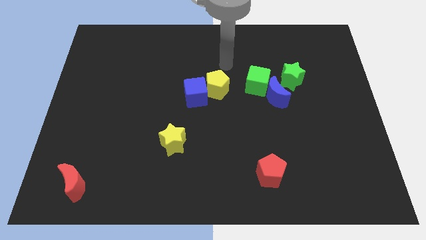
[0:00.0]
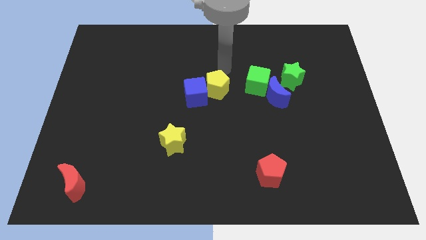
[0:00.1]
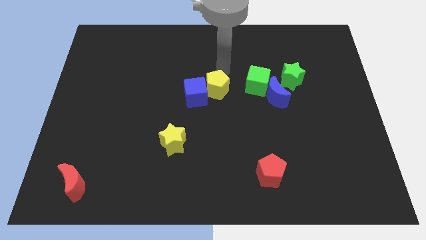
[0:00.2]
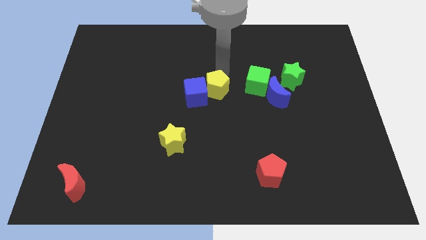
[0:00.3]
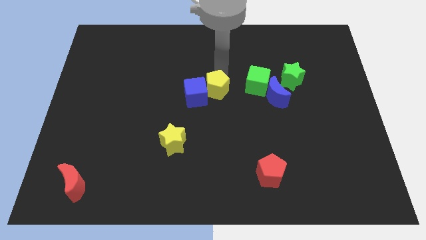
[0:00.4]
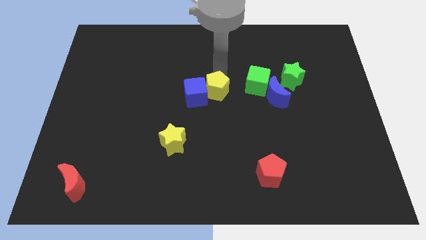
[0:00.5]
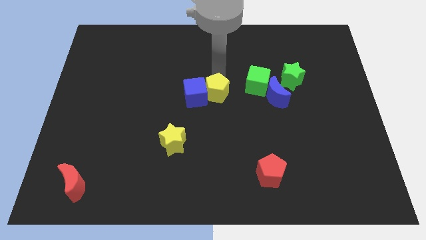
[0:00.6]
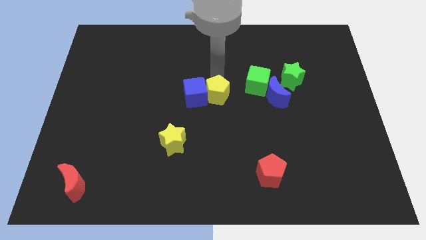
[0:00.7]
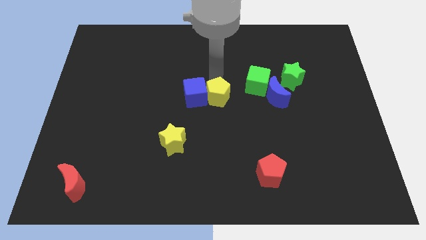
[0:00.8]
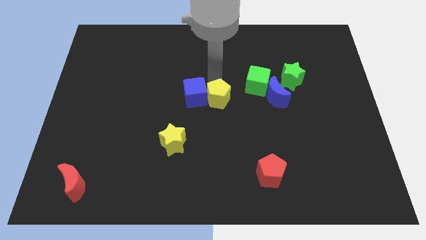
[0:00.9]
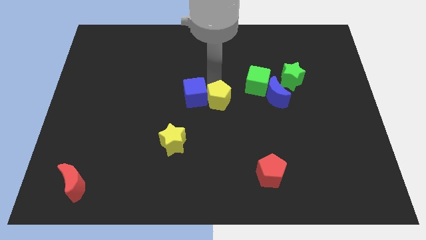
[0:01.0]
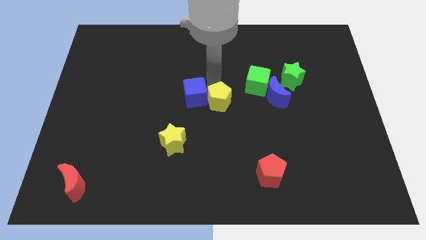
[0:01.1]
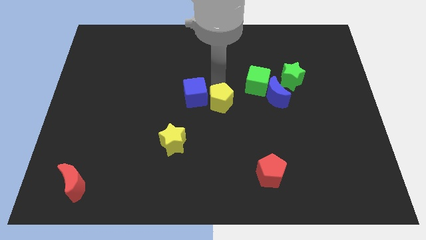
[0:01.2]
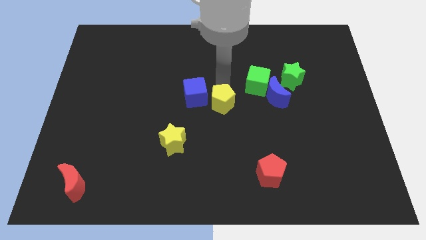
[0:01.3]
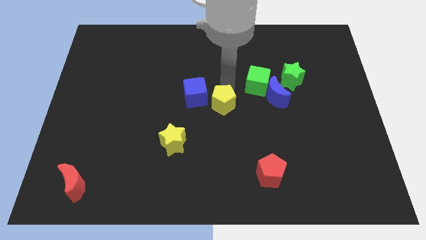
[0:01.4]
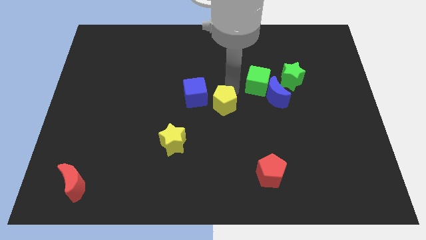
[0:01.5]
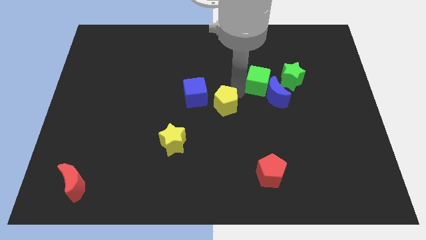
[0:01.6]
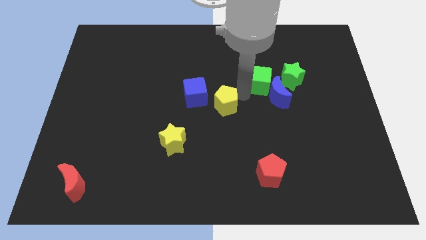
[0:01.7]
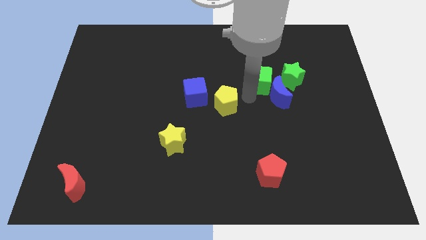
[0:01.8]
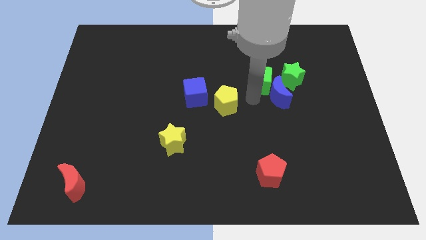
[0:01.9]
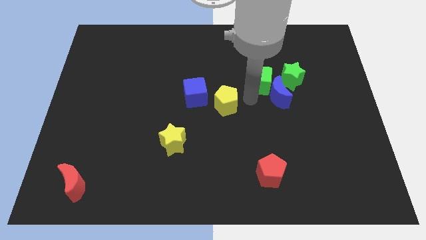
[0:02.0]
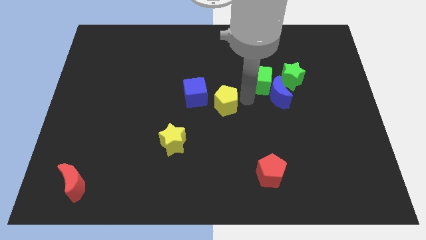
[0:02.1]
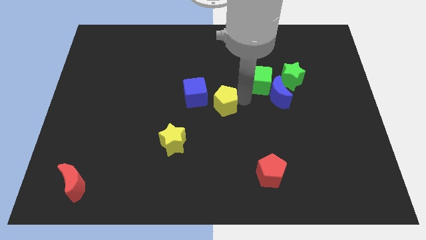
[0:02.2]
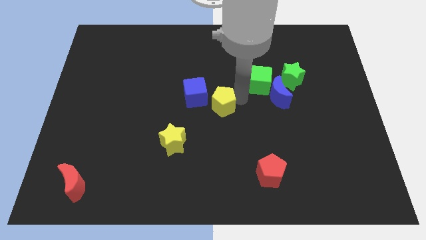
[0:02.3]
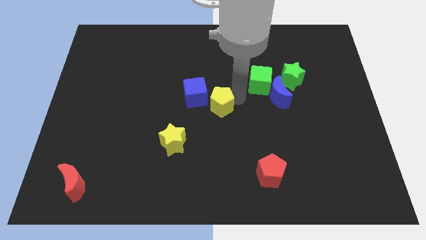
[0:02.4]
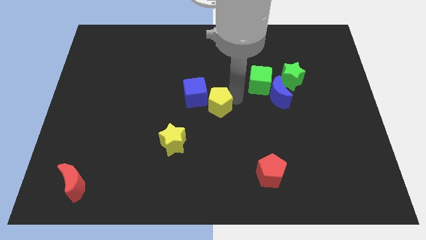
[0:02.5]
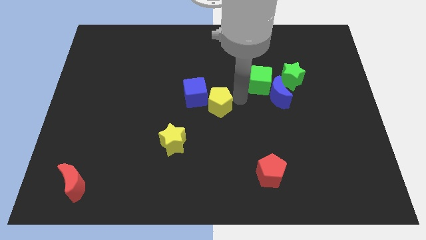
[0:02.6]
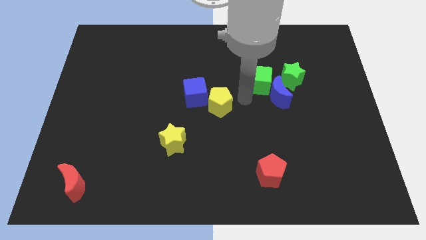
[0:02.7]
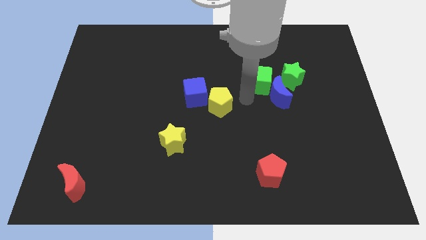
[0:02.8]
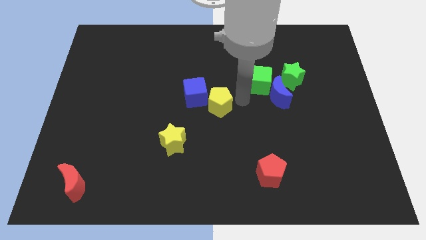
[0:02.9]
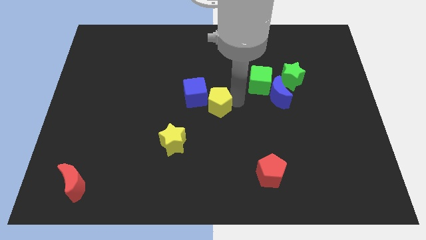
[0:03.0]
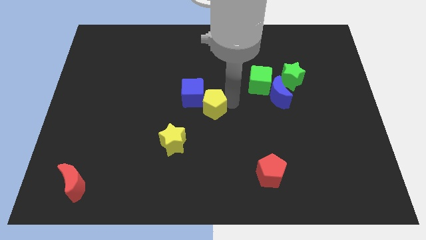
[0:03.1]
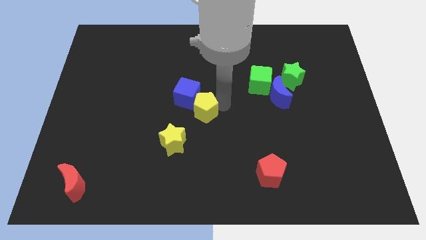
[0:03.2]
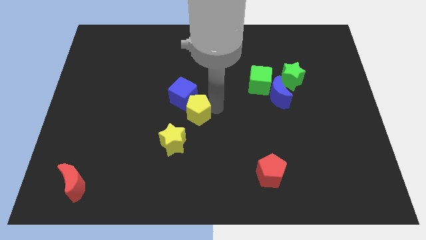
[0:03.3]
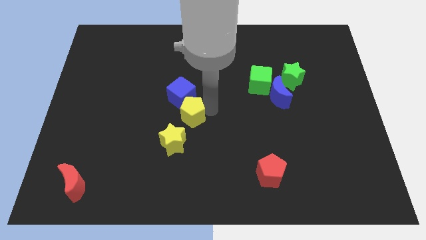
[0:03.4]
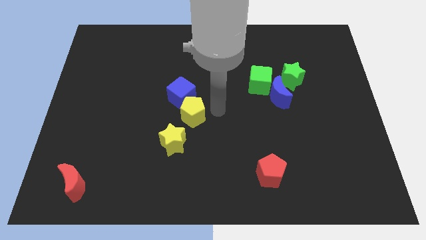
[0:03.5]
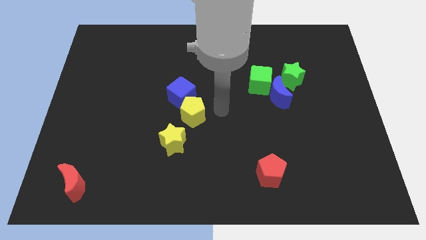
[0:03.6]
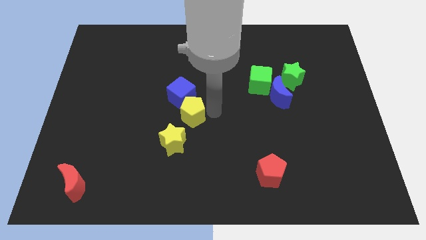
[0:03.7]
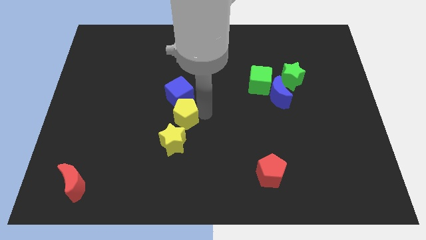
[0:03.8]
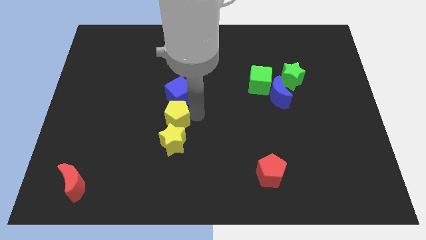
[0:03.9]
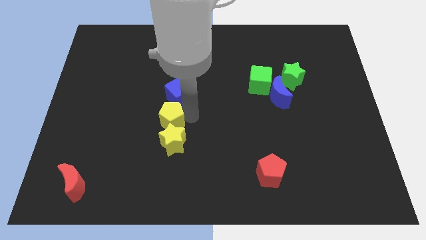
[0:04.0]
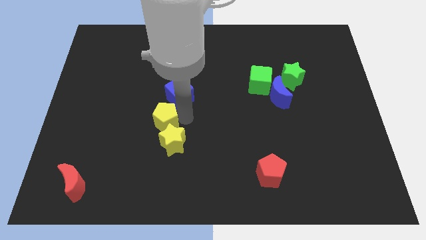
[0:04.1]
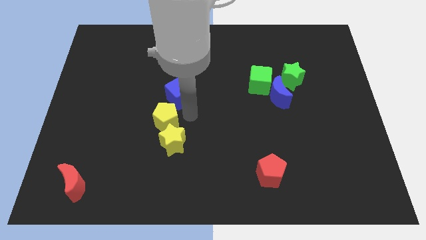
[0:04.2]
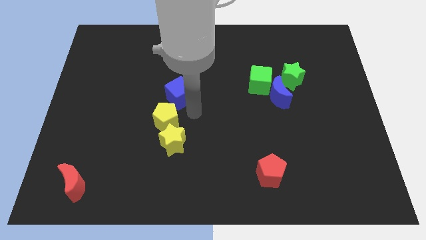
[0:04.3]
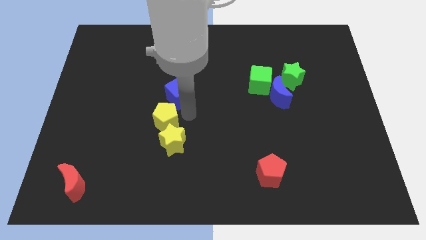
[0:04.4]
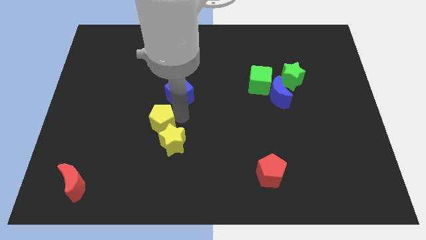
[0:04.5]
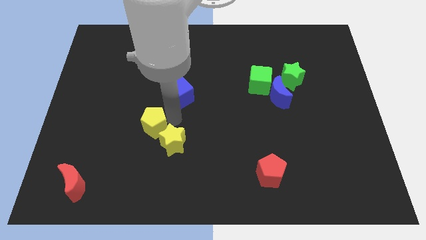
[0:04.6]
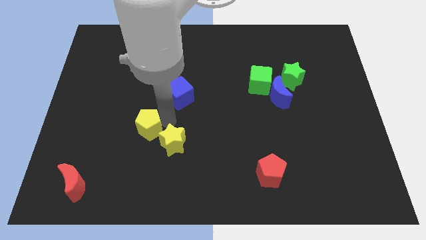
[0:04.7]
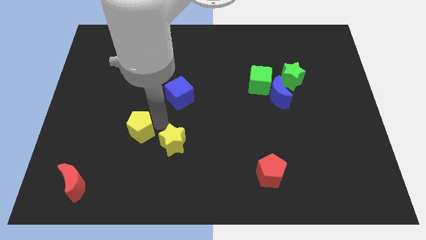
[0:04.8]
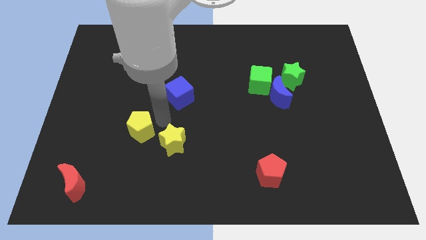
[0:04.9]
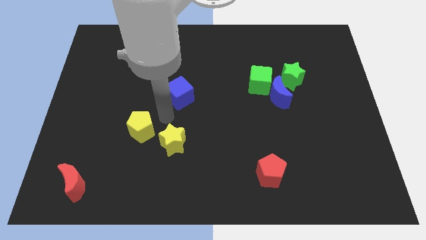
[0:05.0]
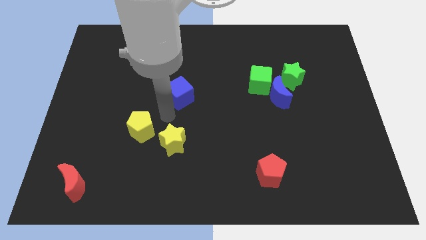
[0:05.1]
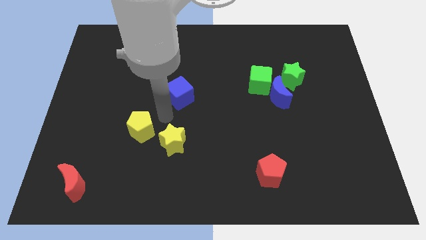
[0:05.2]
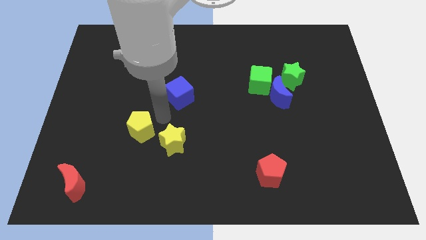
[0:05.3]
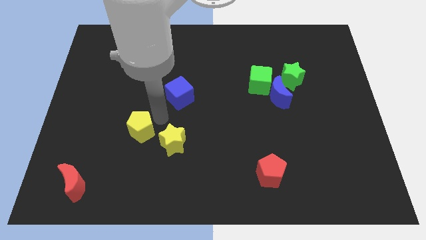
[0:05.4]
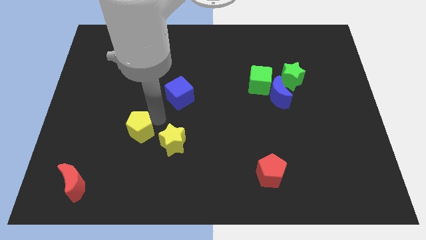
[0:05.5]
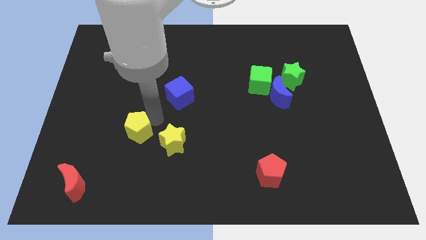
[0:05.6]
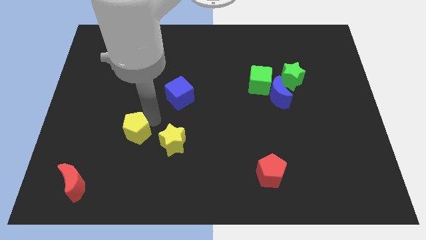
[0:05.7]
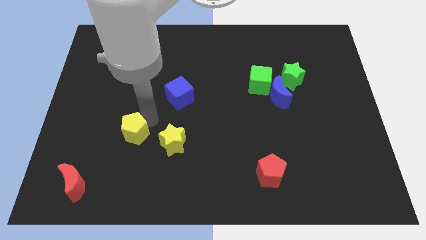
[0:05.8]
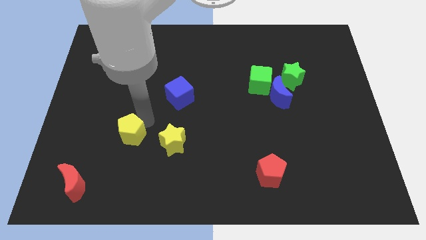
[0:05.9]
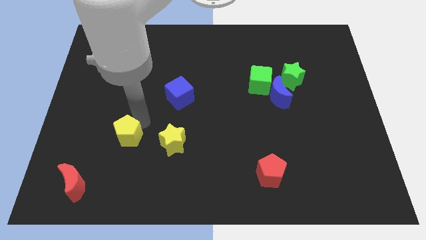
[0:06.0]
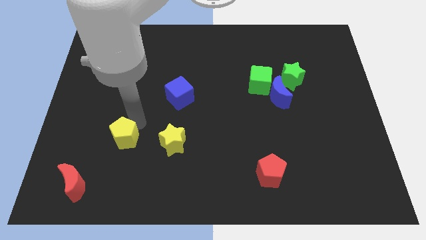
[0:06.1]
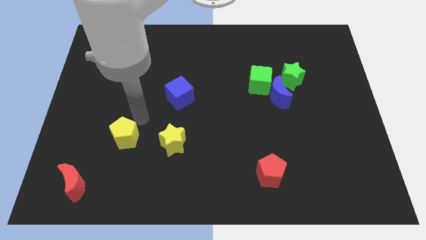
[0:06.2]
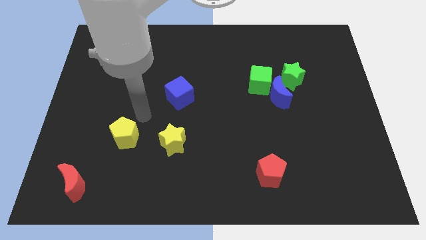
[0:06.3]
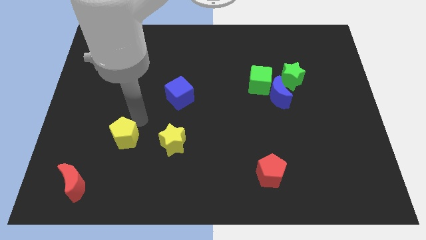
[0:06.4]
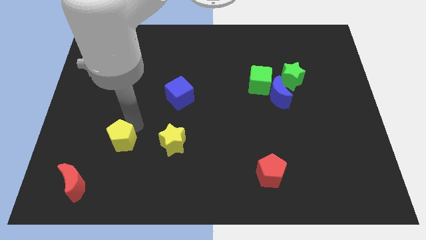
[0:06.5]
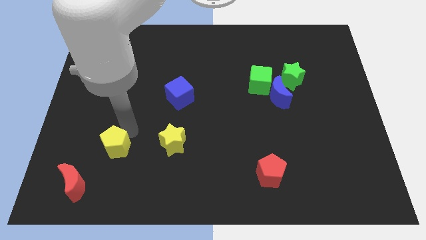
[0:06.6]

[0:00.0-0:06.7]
move the yellow pentagon diagonally up and to the right of the red moon

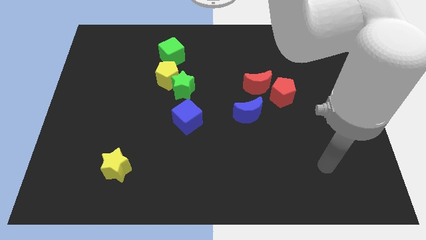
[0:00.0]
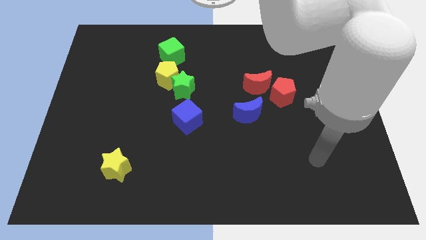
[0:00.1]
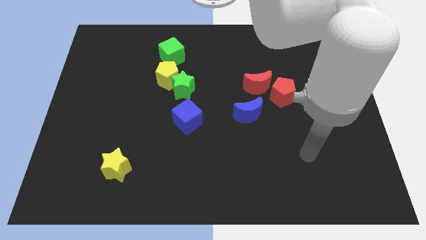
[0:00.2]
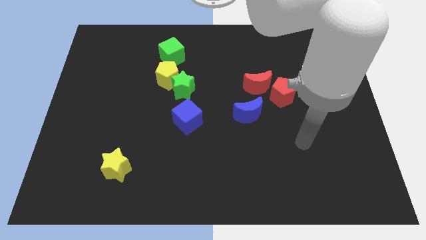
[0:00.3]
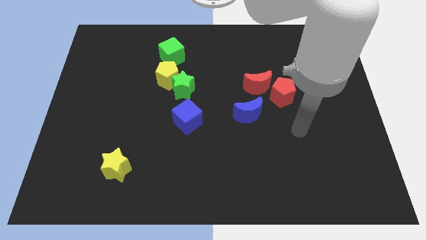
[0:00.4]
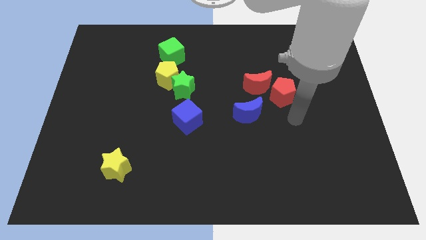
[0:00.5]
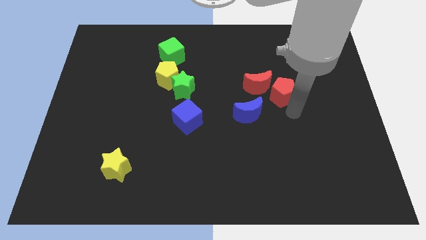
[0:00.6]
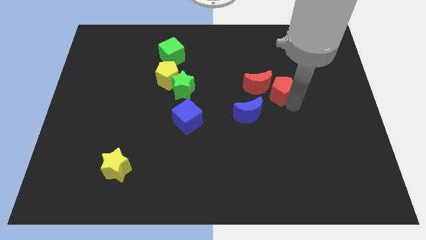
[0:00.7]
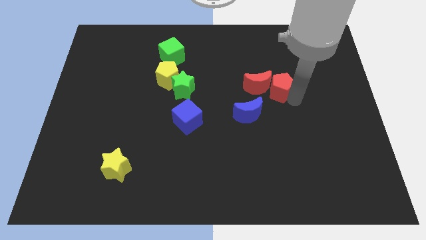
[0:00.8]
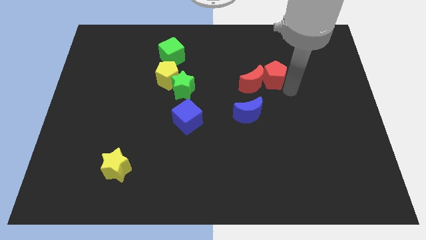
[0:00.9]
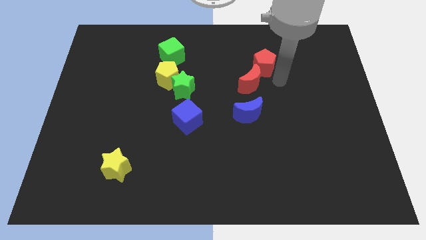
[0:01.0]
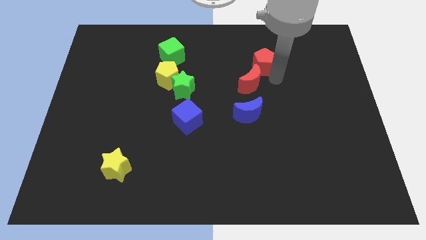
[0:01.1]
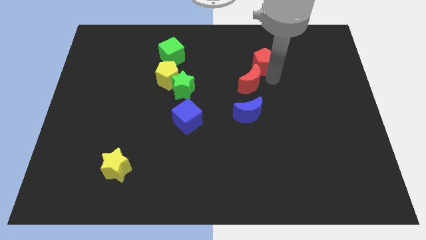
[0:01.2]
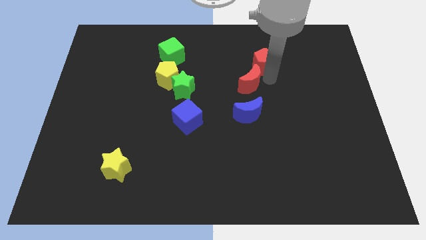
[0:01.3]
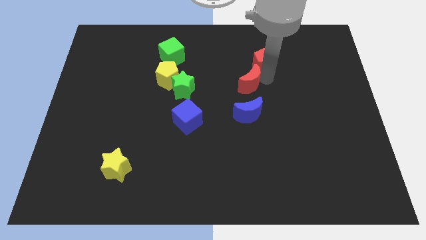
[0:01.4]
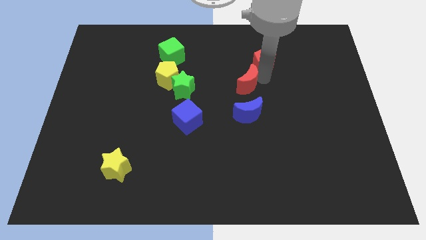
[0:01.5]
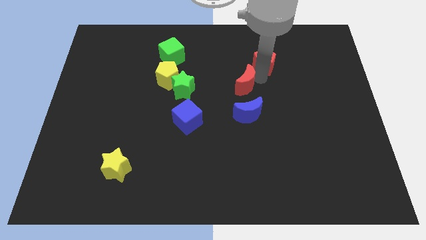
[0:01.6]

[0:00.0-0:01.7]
push the red moon to the right side of the green star
